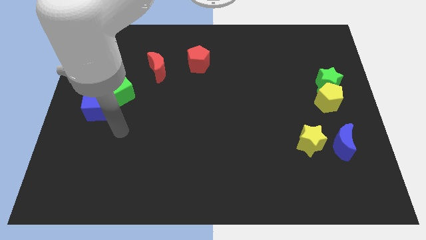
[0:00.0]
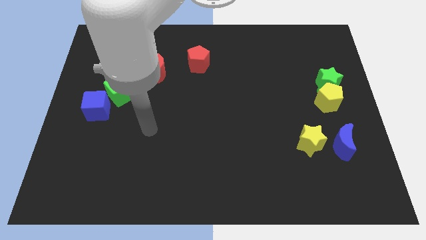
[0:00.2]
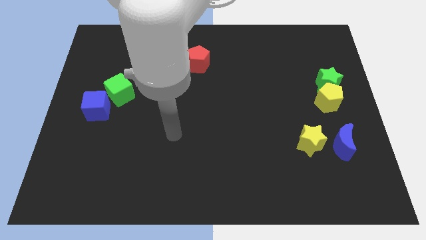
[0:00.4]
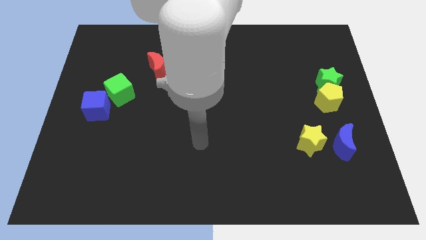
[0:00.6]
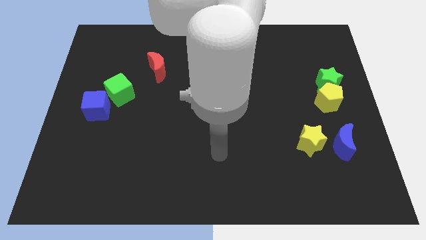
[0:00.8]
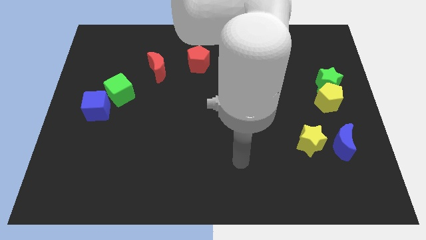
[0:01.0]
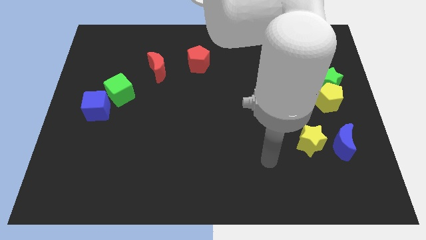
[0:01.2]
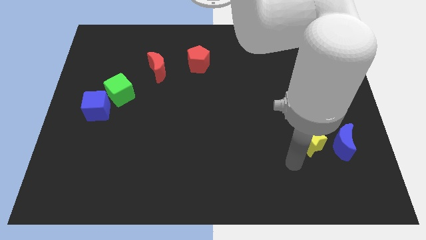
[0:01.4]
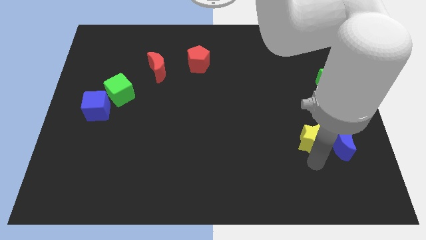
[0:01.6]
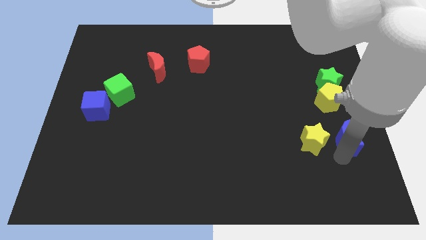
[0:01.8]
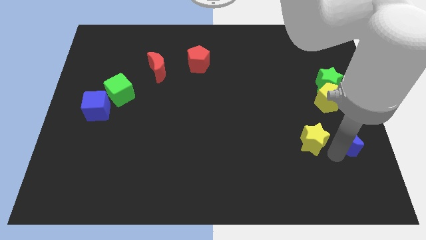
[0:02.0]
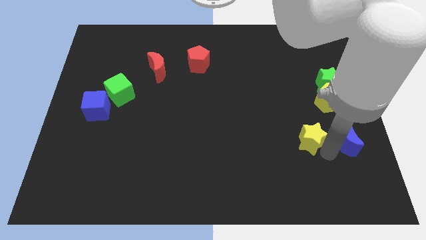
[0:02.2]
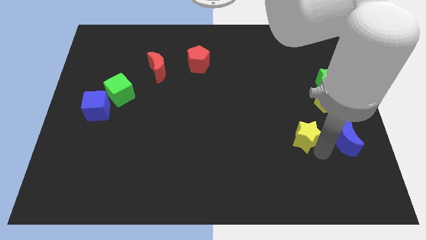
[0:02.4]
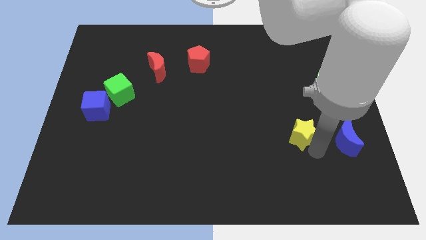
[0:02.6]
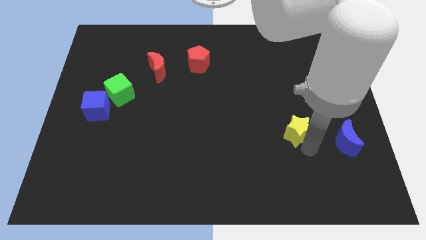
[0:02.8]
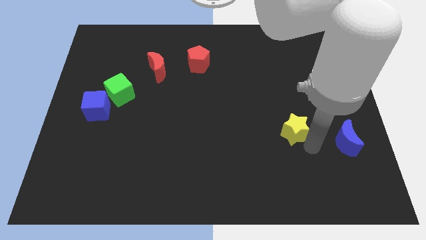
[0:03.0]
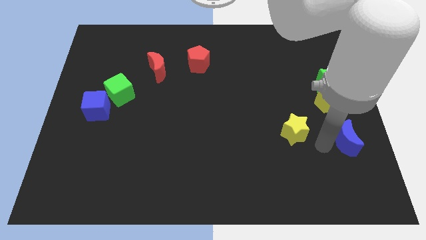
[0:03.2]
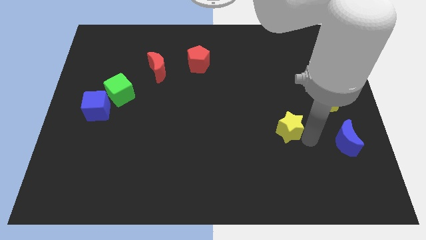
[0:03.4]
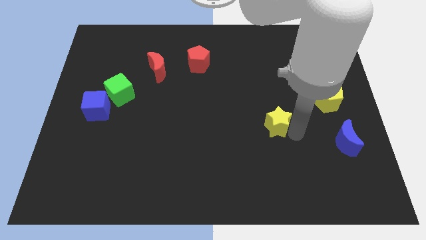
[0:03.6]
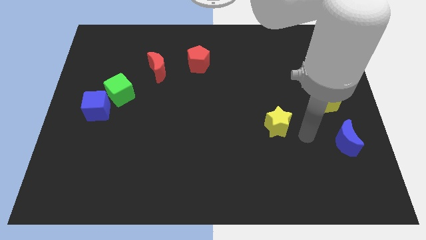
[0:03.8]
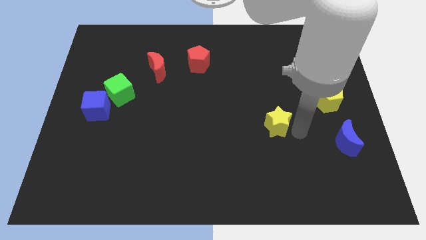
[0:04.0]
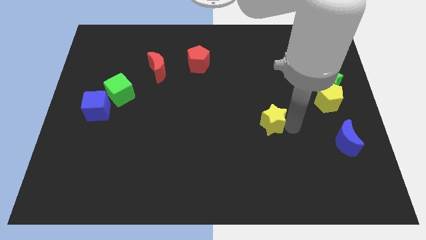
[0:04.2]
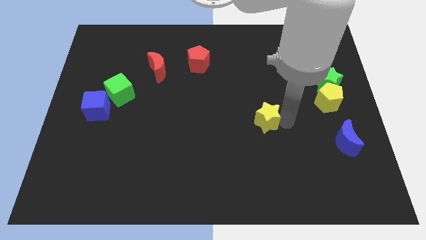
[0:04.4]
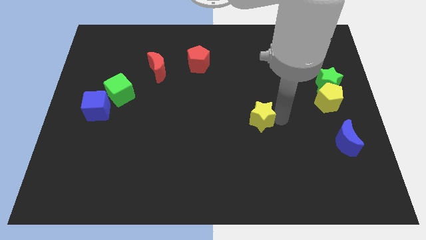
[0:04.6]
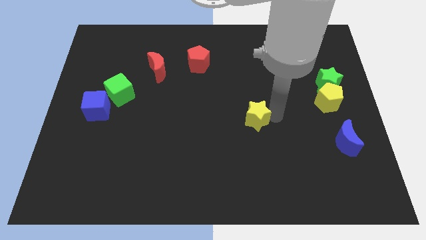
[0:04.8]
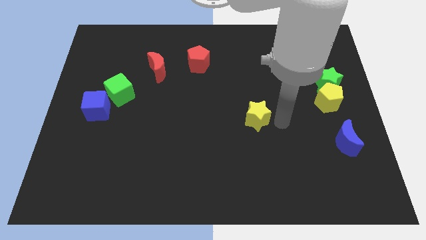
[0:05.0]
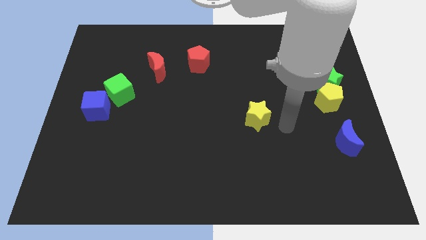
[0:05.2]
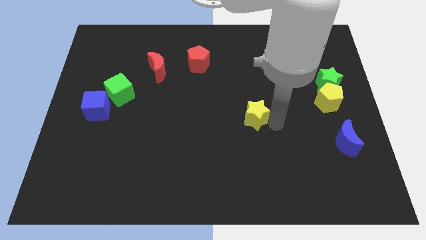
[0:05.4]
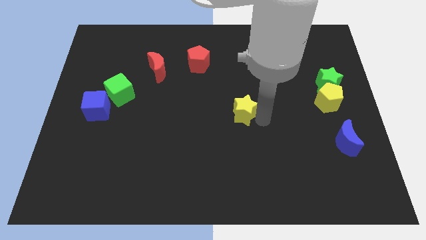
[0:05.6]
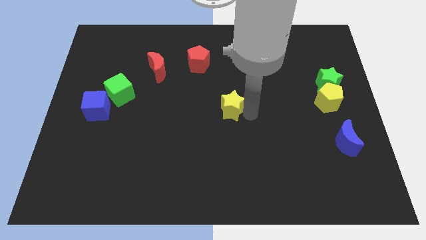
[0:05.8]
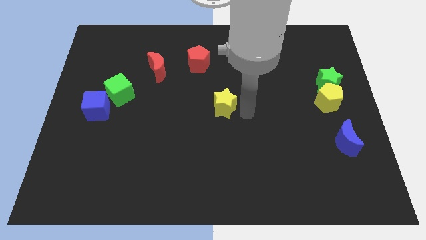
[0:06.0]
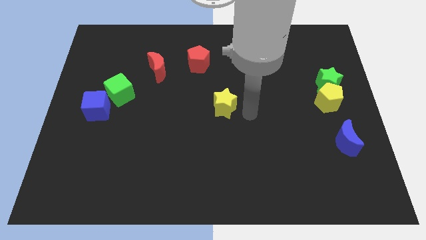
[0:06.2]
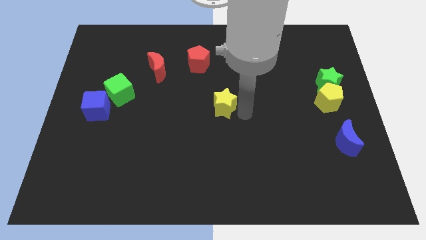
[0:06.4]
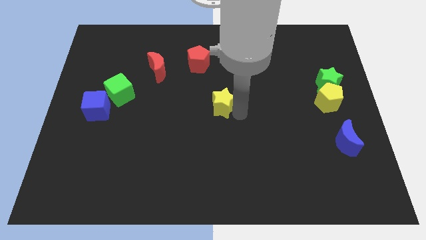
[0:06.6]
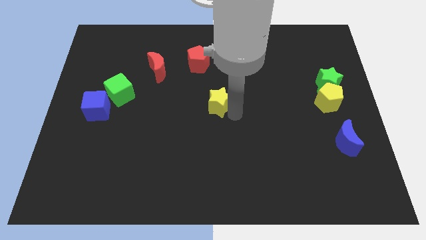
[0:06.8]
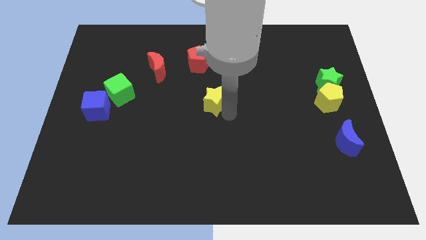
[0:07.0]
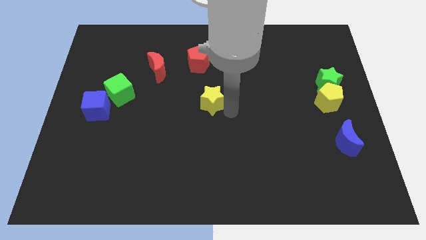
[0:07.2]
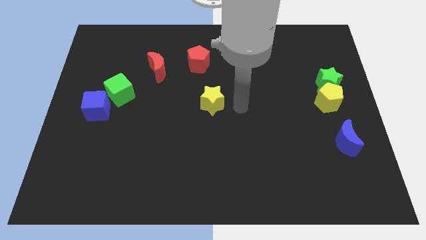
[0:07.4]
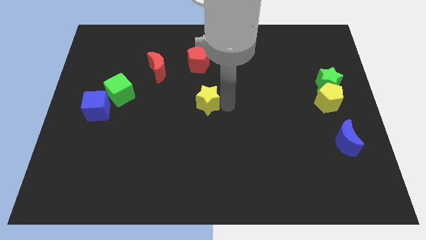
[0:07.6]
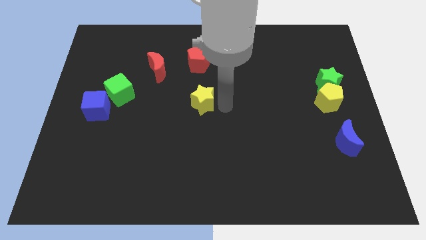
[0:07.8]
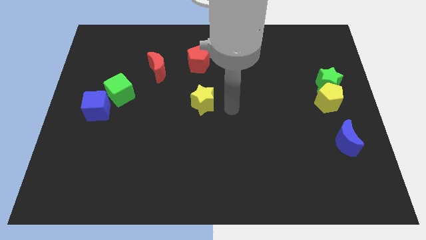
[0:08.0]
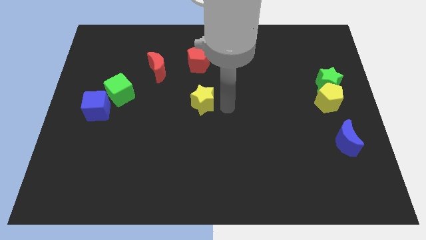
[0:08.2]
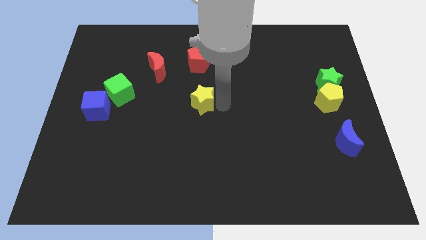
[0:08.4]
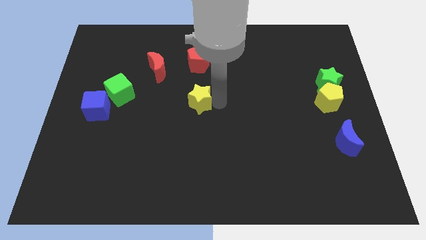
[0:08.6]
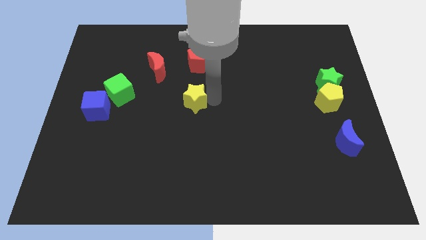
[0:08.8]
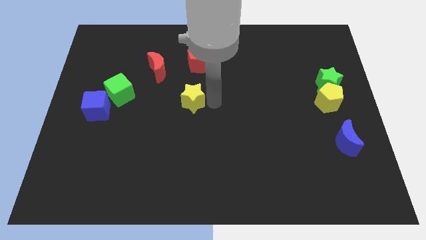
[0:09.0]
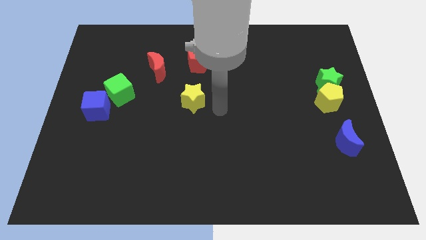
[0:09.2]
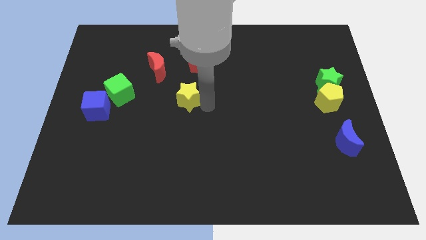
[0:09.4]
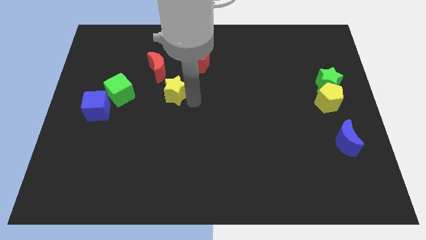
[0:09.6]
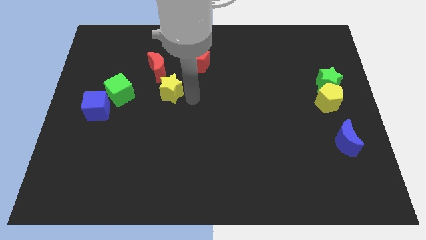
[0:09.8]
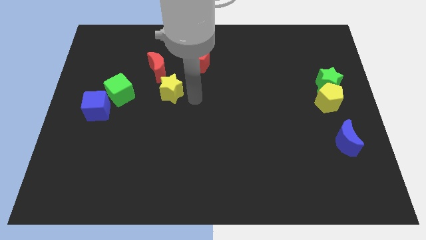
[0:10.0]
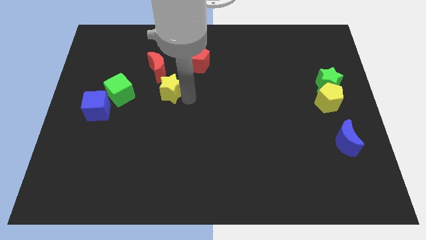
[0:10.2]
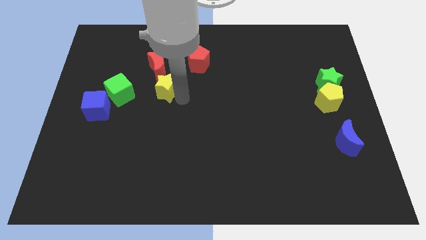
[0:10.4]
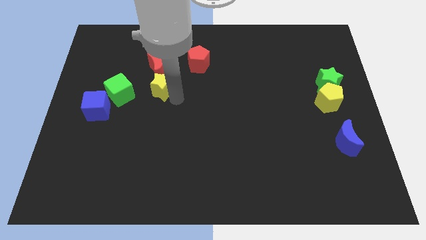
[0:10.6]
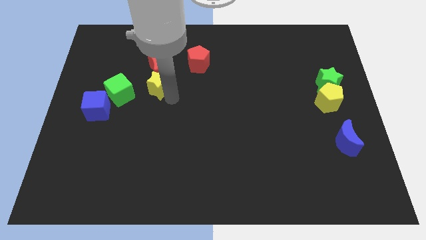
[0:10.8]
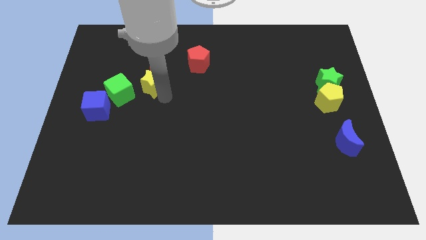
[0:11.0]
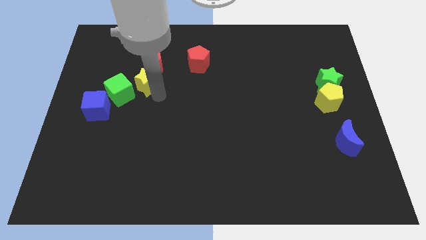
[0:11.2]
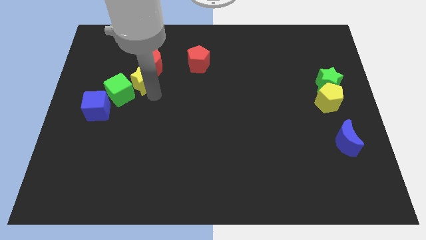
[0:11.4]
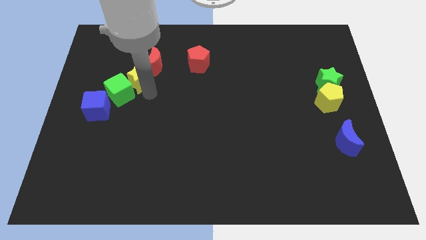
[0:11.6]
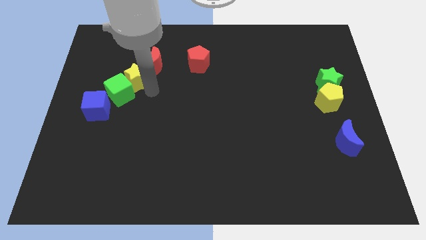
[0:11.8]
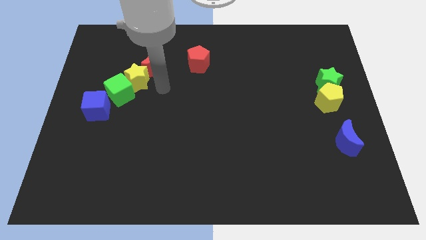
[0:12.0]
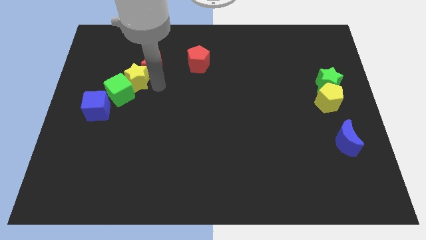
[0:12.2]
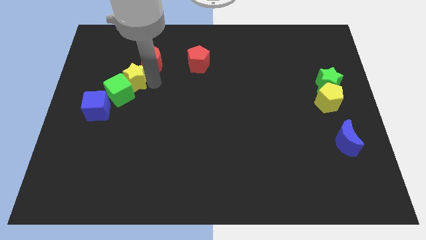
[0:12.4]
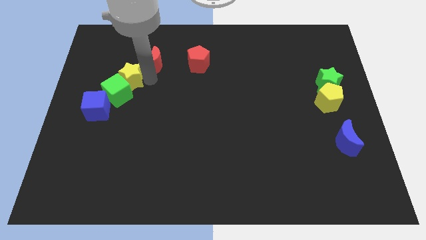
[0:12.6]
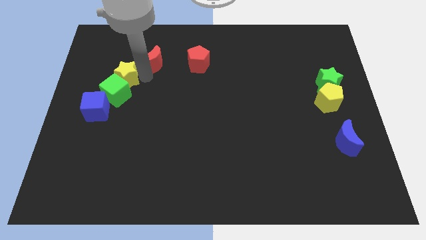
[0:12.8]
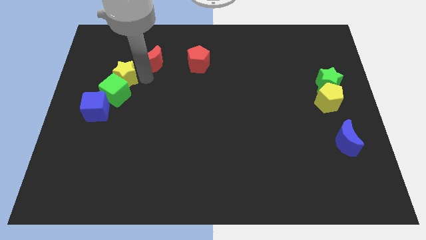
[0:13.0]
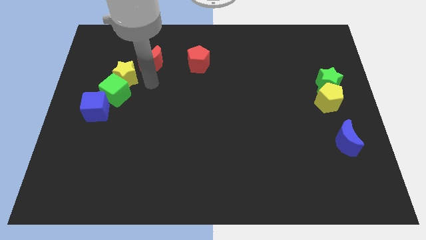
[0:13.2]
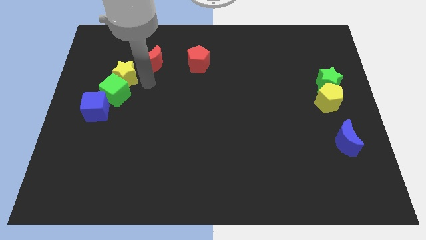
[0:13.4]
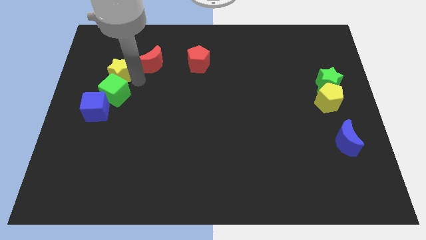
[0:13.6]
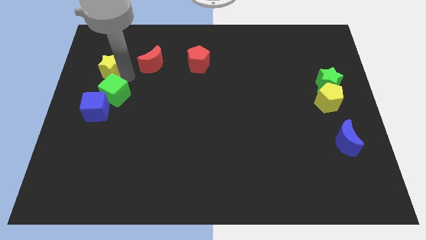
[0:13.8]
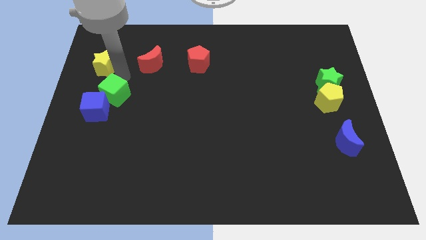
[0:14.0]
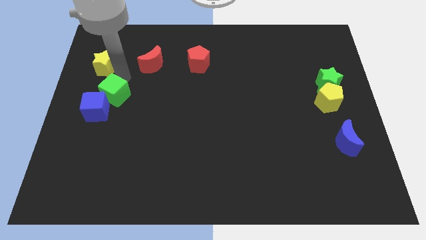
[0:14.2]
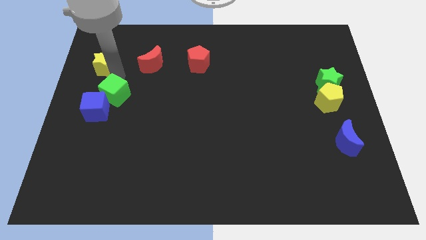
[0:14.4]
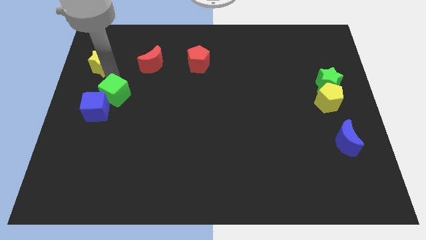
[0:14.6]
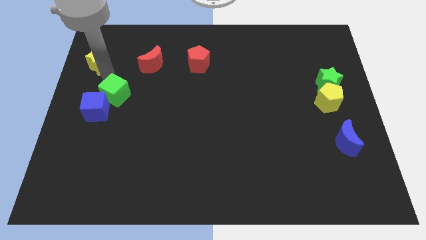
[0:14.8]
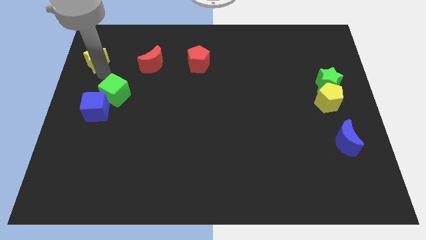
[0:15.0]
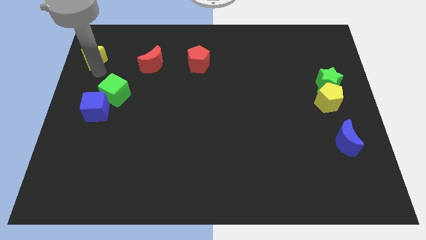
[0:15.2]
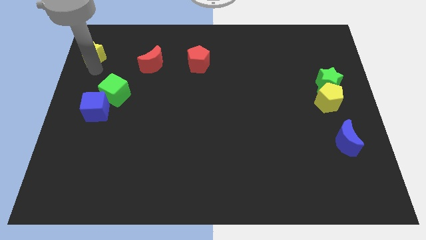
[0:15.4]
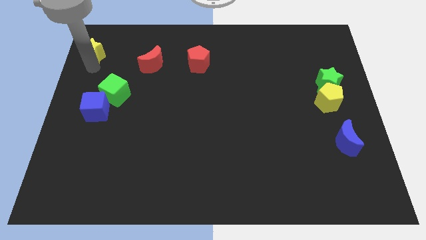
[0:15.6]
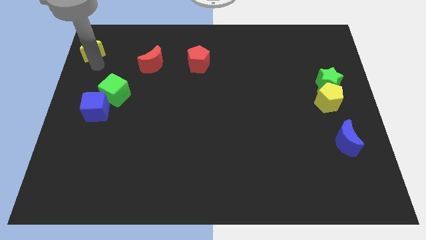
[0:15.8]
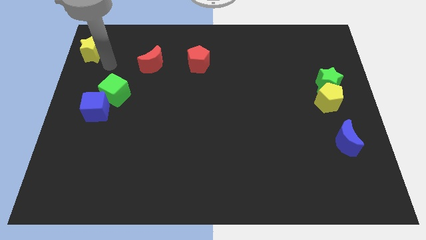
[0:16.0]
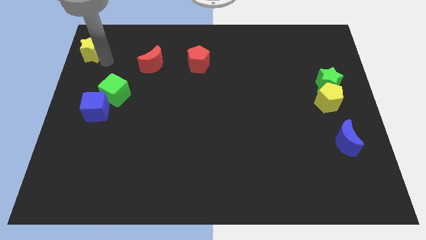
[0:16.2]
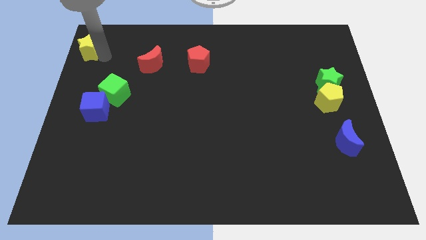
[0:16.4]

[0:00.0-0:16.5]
push the yellow star to the top left of the board
